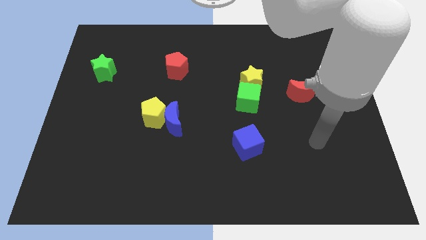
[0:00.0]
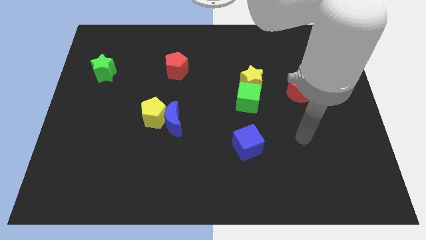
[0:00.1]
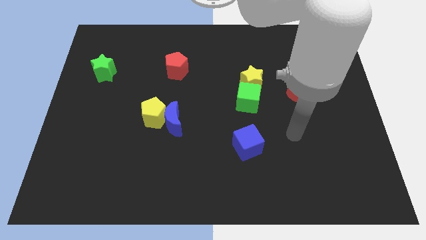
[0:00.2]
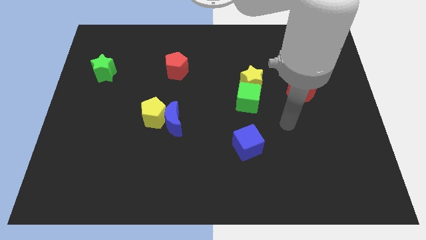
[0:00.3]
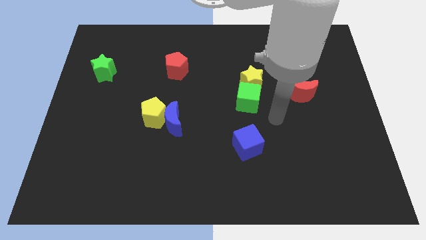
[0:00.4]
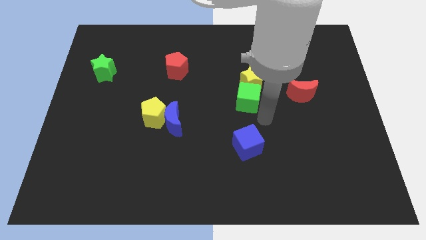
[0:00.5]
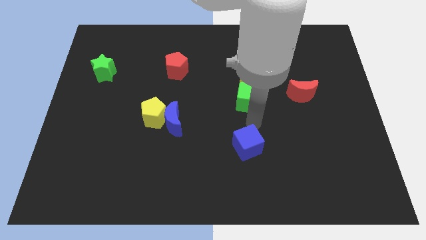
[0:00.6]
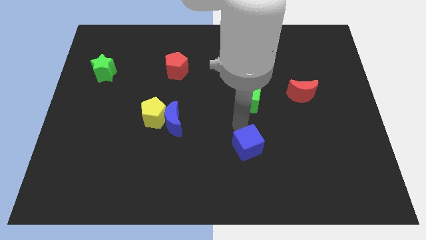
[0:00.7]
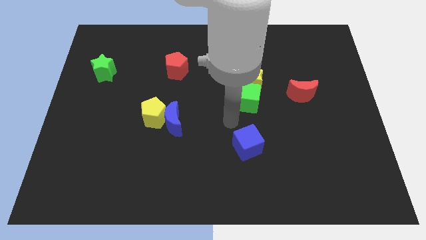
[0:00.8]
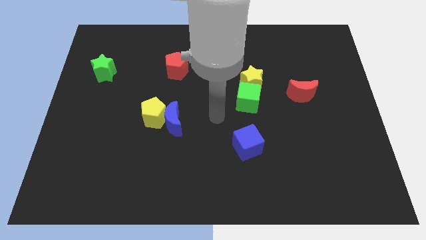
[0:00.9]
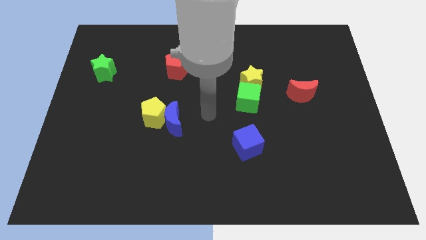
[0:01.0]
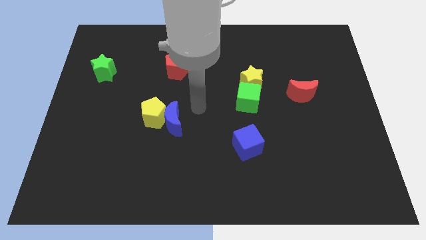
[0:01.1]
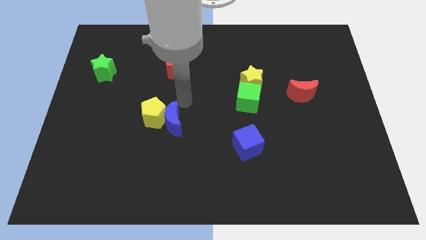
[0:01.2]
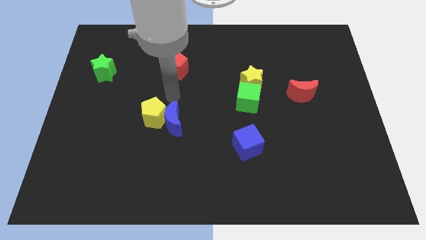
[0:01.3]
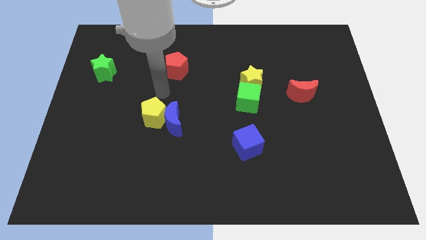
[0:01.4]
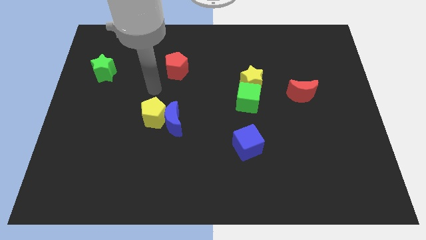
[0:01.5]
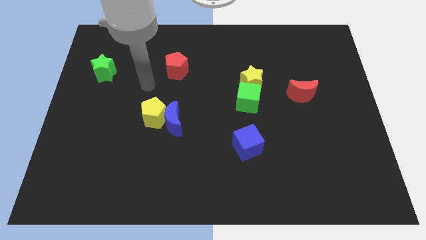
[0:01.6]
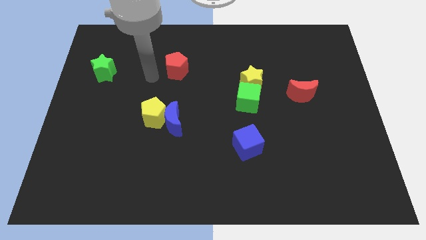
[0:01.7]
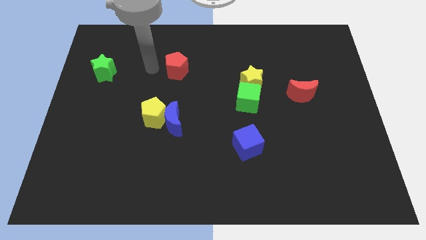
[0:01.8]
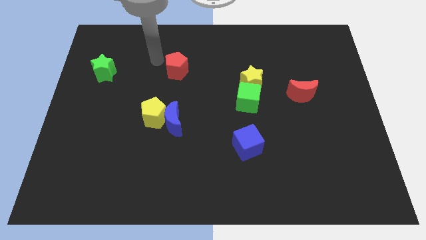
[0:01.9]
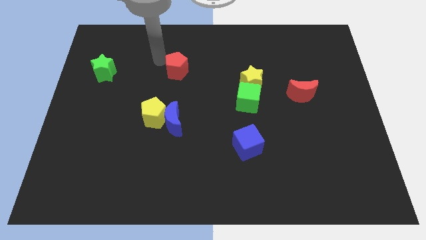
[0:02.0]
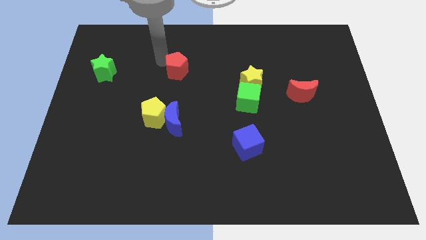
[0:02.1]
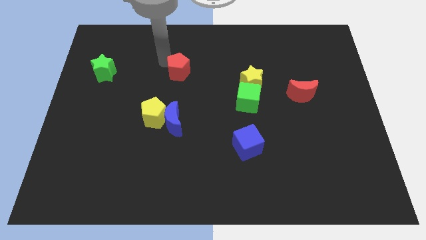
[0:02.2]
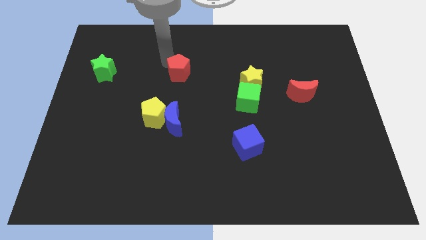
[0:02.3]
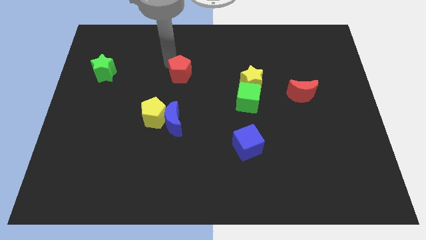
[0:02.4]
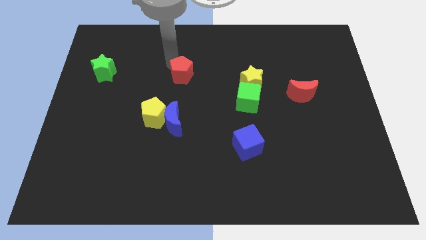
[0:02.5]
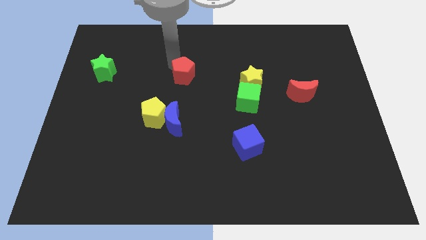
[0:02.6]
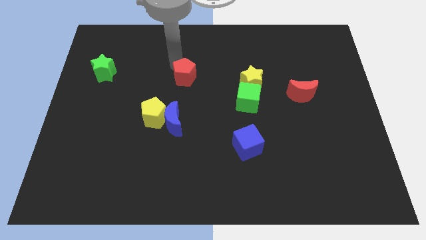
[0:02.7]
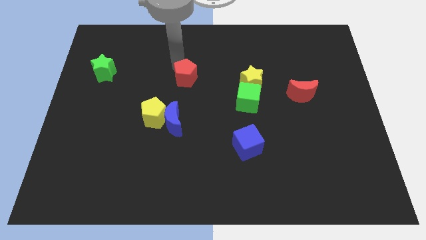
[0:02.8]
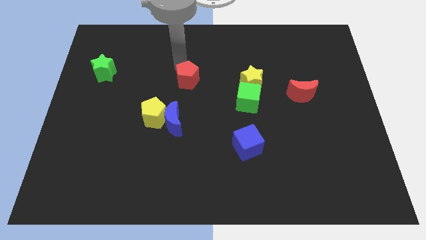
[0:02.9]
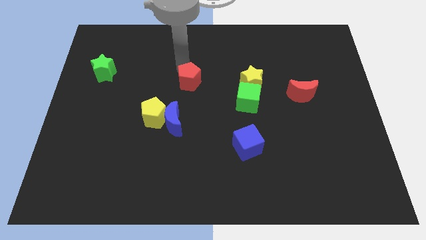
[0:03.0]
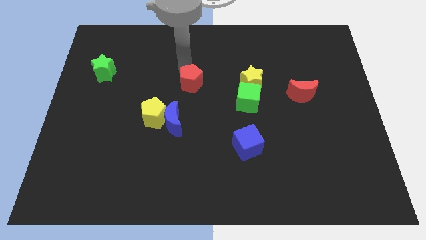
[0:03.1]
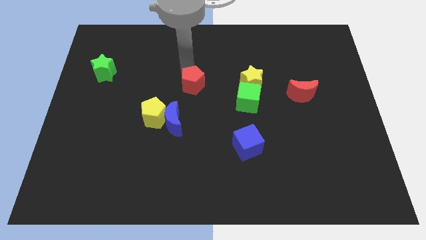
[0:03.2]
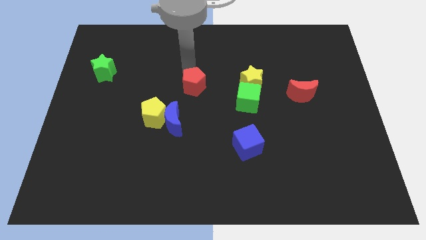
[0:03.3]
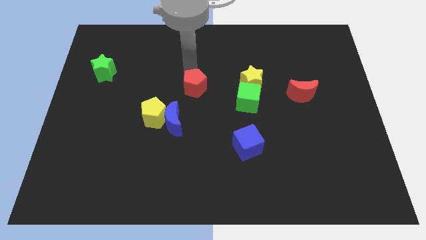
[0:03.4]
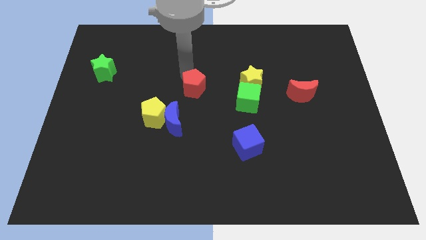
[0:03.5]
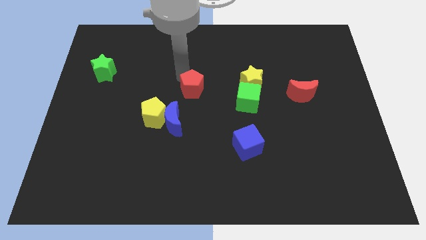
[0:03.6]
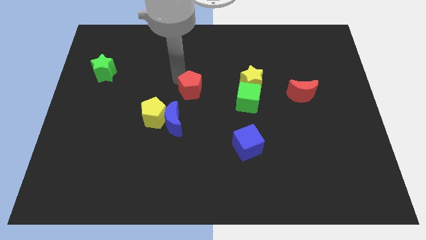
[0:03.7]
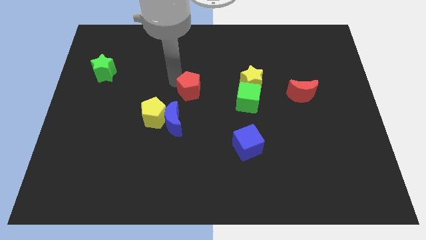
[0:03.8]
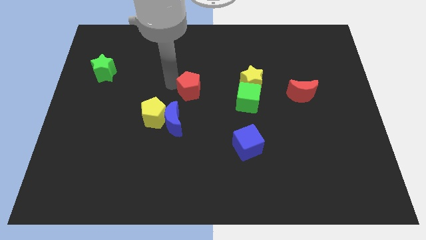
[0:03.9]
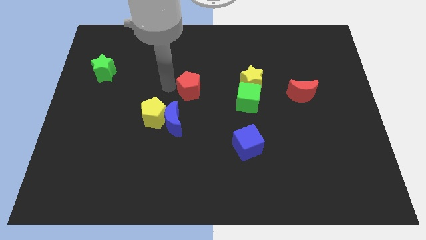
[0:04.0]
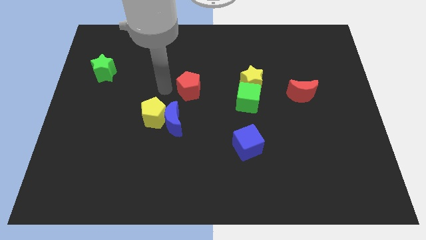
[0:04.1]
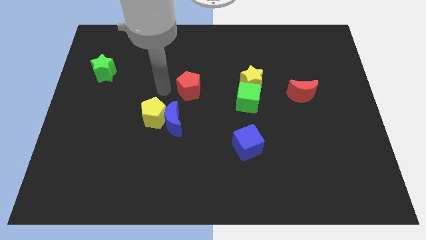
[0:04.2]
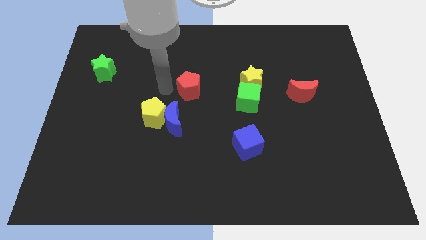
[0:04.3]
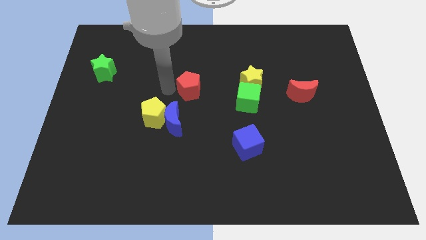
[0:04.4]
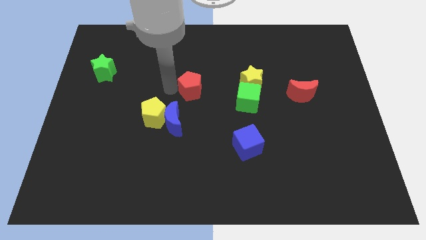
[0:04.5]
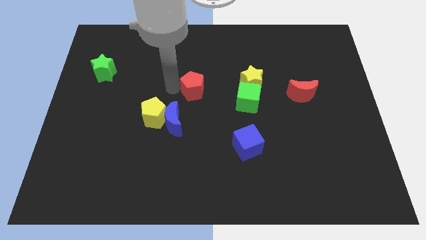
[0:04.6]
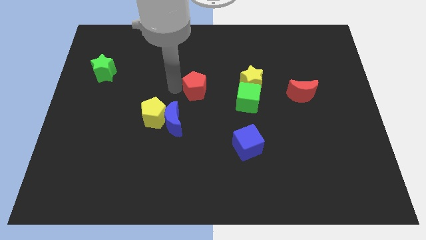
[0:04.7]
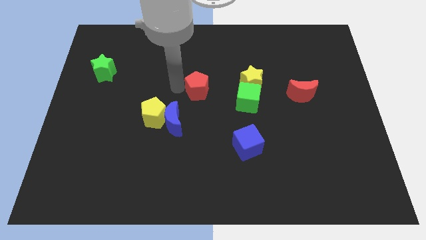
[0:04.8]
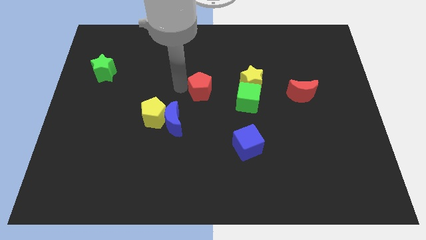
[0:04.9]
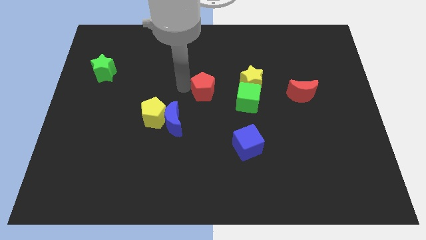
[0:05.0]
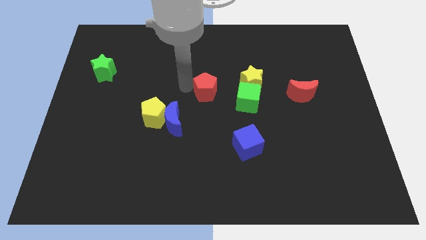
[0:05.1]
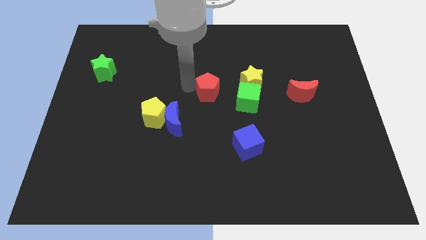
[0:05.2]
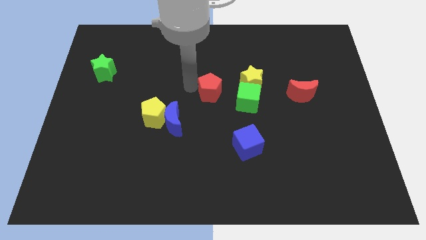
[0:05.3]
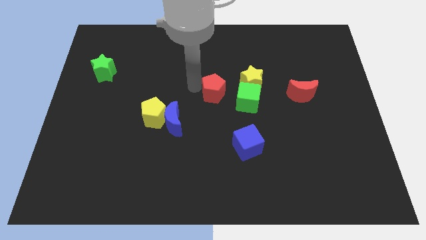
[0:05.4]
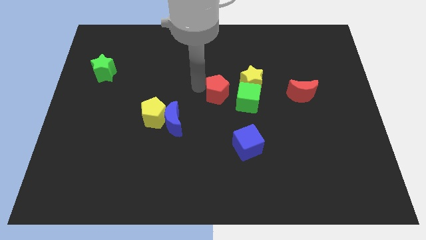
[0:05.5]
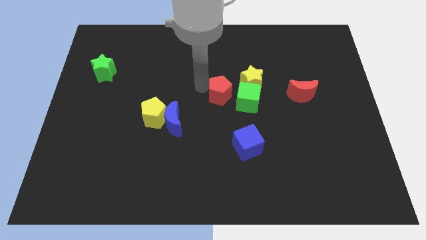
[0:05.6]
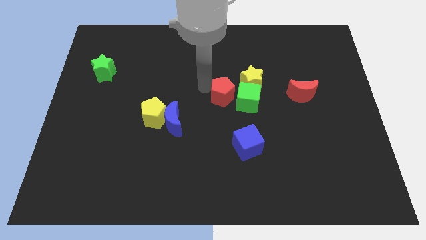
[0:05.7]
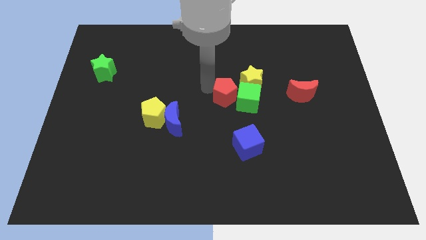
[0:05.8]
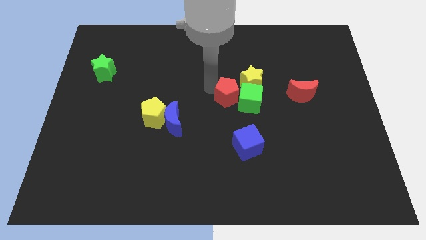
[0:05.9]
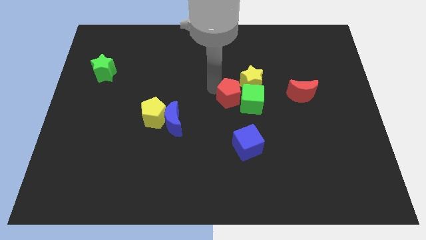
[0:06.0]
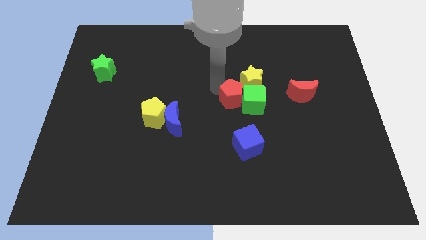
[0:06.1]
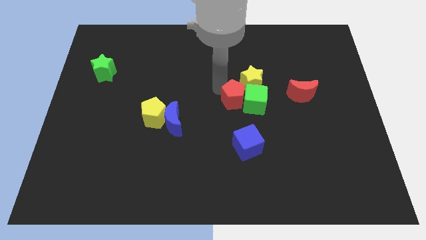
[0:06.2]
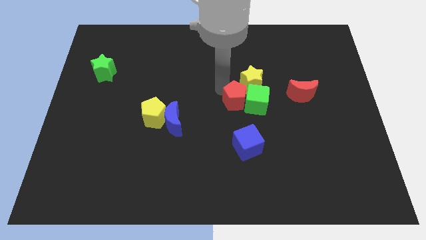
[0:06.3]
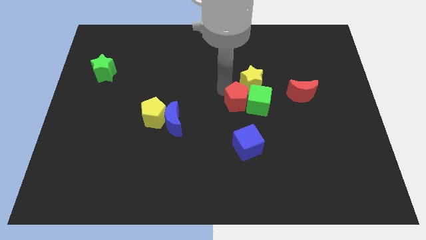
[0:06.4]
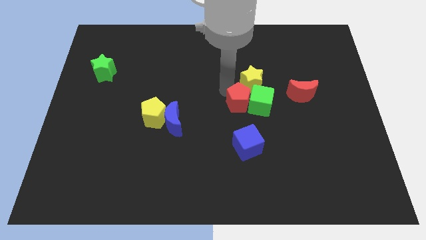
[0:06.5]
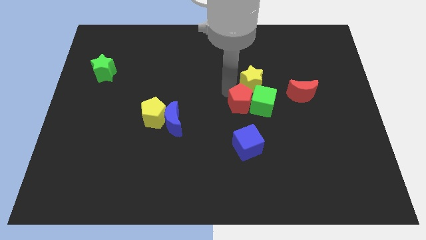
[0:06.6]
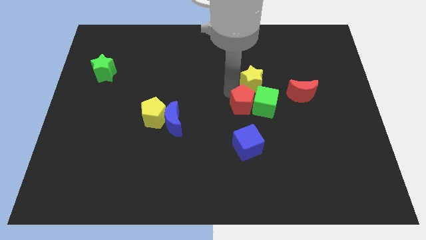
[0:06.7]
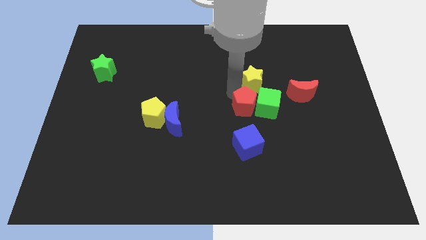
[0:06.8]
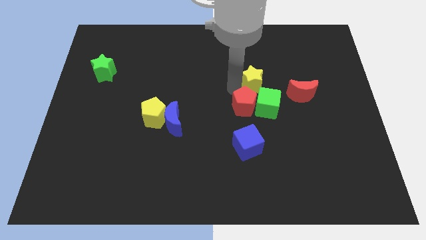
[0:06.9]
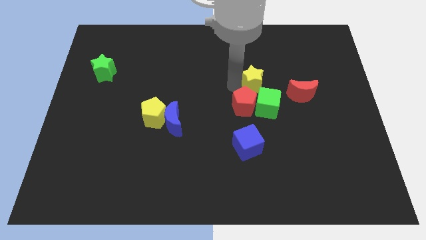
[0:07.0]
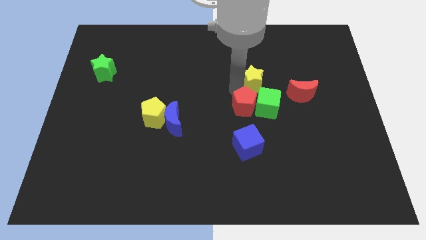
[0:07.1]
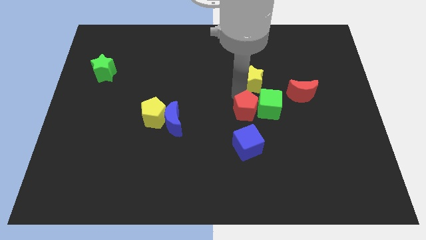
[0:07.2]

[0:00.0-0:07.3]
push the red pentagon downwards and then right

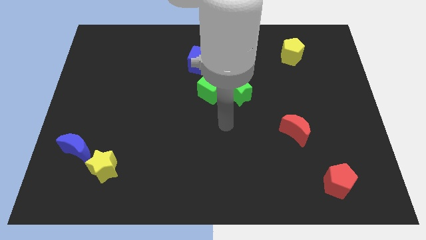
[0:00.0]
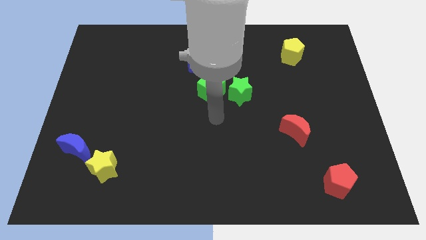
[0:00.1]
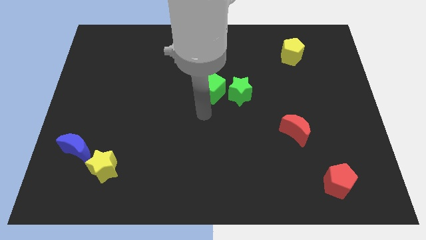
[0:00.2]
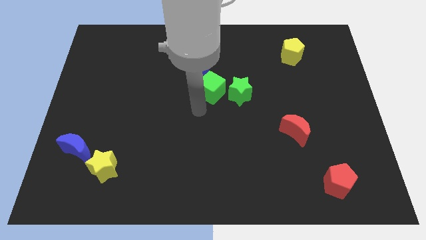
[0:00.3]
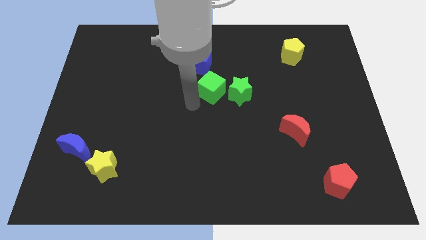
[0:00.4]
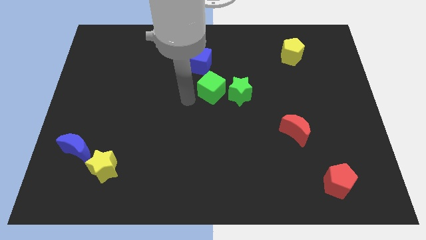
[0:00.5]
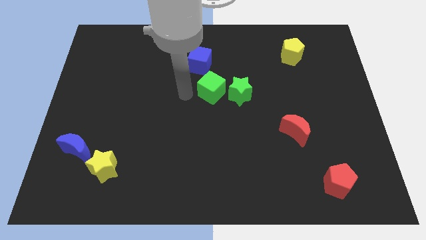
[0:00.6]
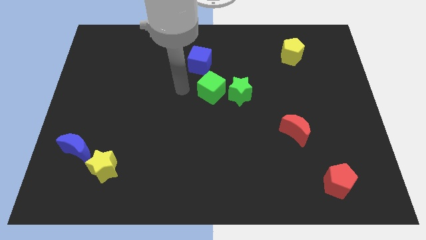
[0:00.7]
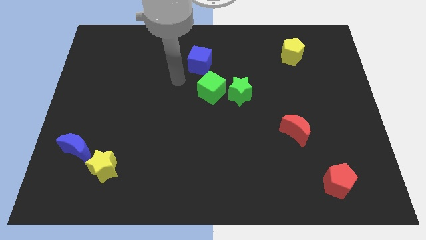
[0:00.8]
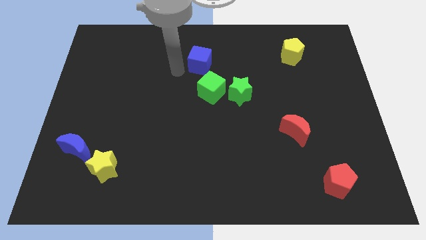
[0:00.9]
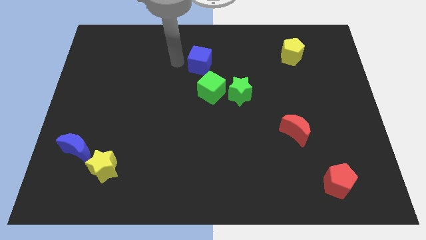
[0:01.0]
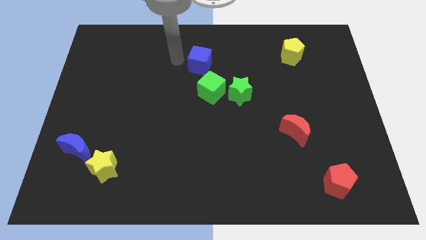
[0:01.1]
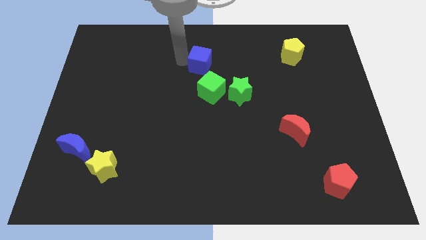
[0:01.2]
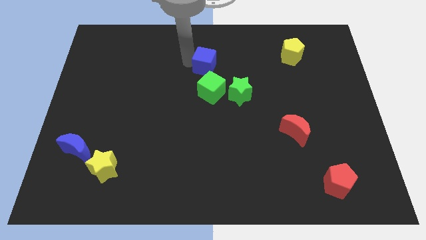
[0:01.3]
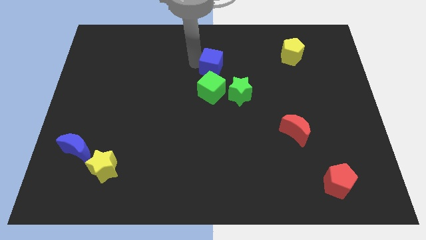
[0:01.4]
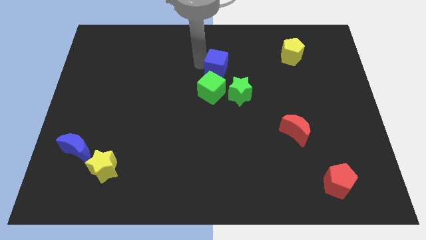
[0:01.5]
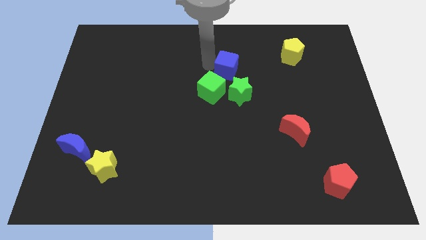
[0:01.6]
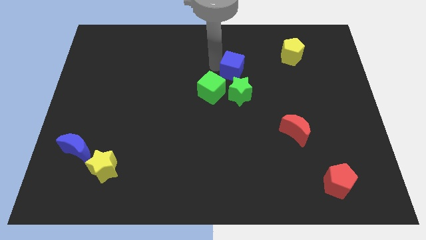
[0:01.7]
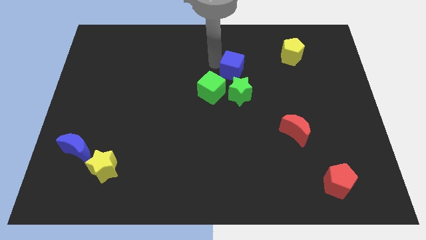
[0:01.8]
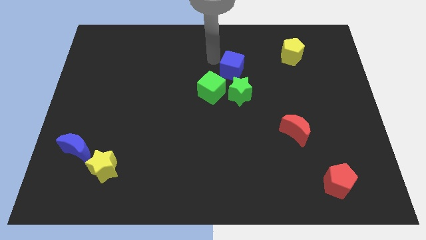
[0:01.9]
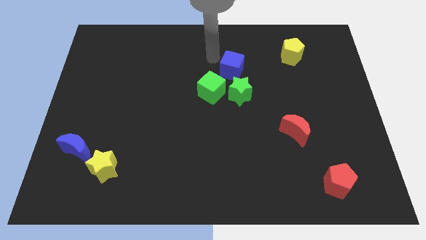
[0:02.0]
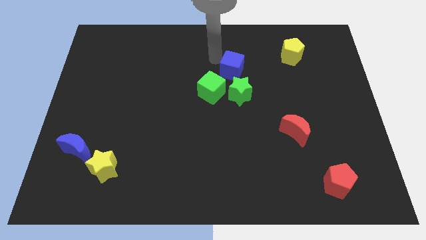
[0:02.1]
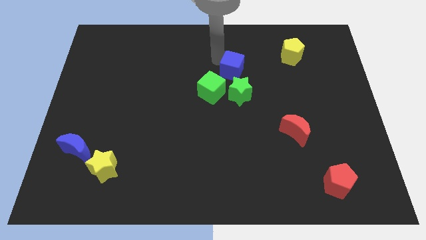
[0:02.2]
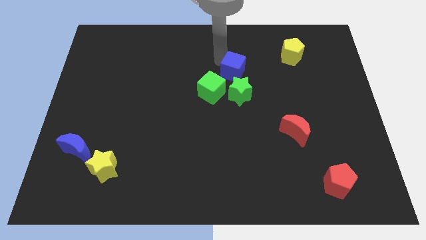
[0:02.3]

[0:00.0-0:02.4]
slide the blue cube diagonally down and to the right a little
